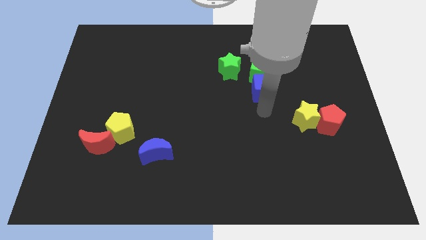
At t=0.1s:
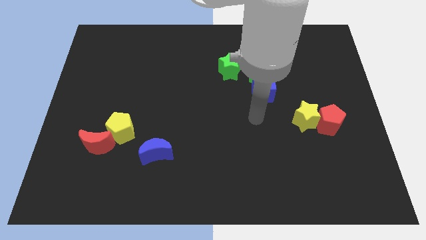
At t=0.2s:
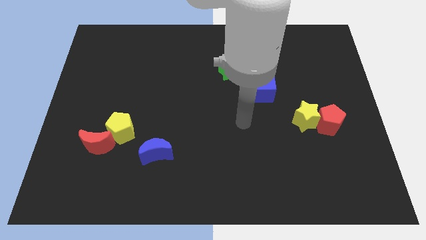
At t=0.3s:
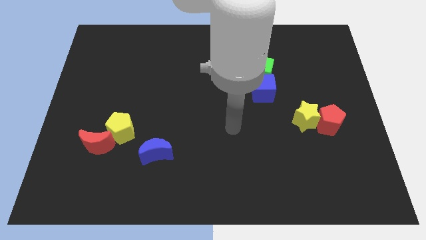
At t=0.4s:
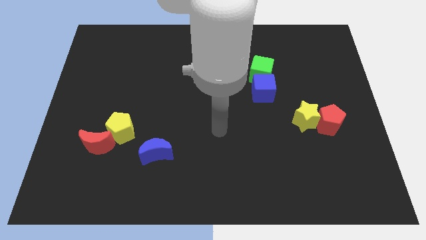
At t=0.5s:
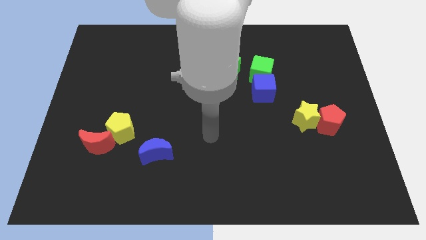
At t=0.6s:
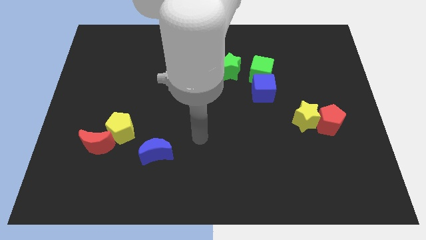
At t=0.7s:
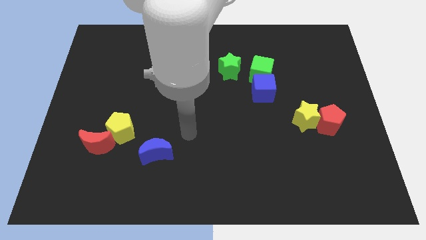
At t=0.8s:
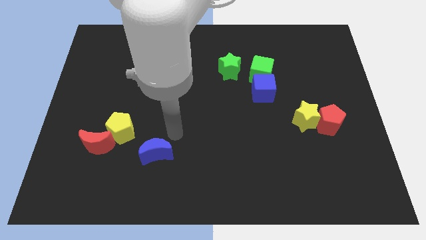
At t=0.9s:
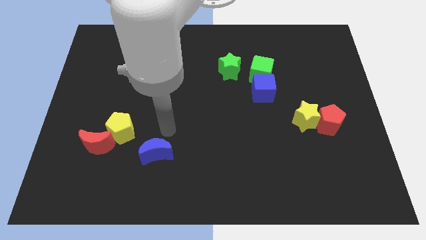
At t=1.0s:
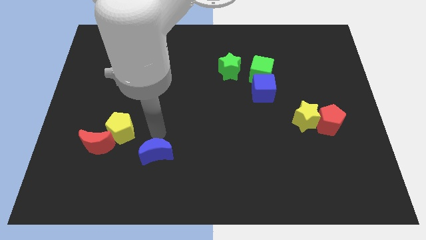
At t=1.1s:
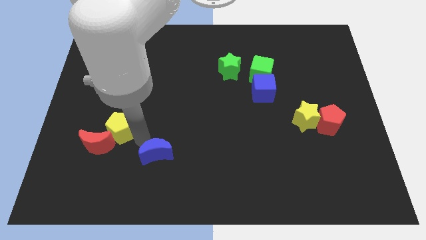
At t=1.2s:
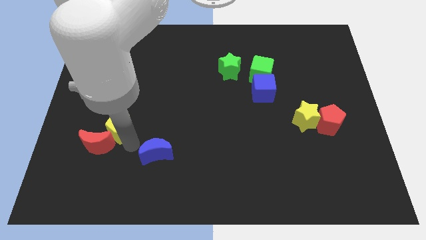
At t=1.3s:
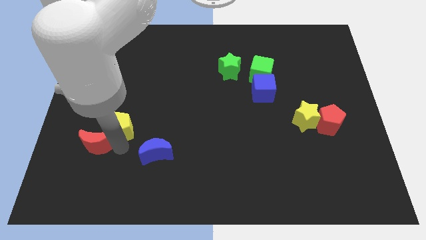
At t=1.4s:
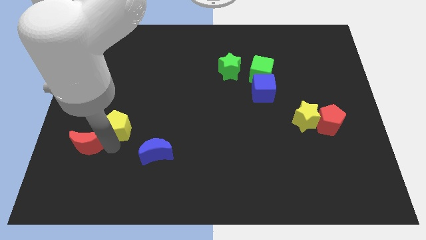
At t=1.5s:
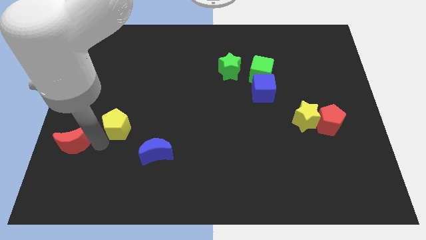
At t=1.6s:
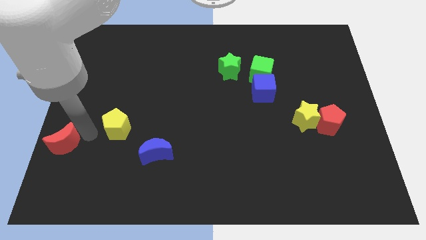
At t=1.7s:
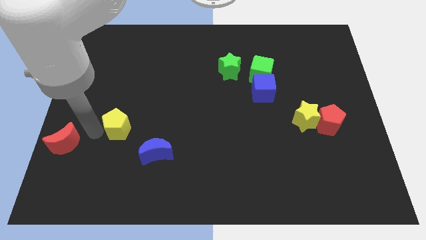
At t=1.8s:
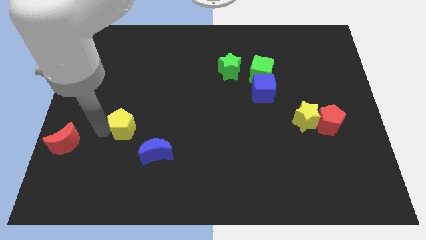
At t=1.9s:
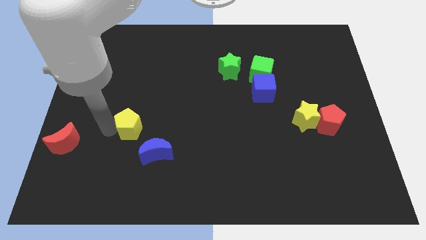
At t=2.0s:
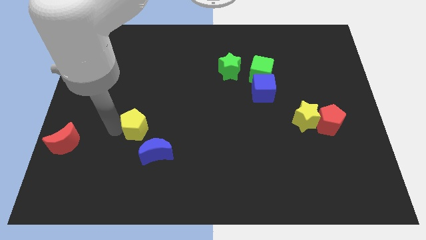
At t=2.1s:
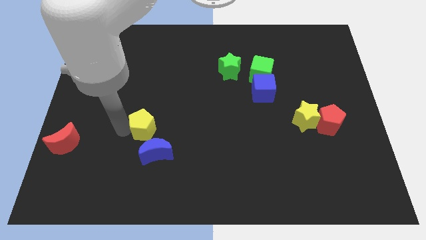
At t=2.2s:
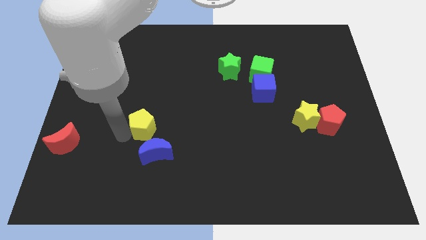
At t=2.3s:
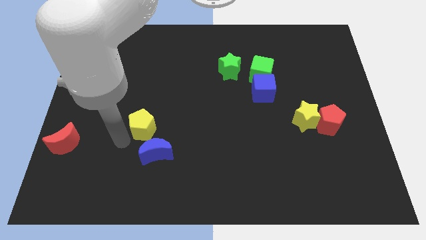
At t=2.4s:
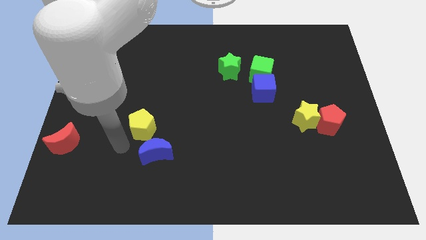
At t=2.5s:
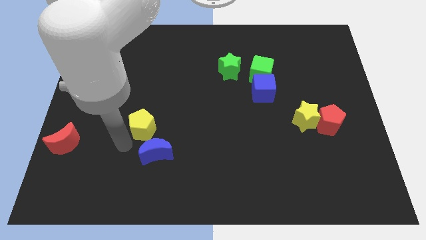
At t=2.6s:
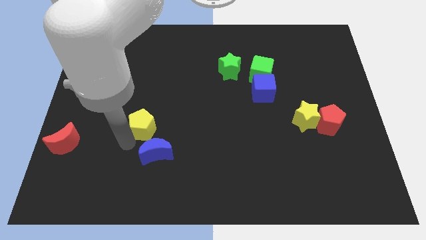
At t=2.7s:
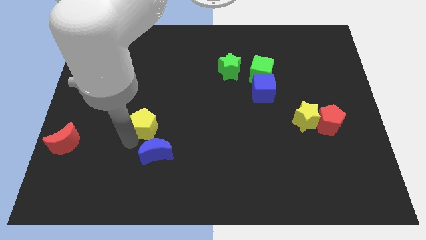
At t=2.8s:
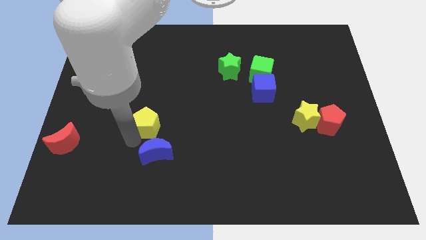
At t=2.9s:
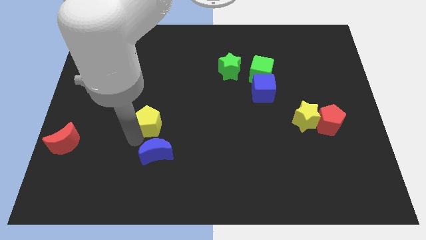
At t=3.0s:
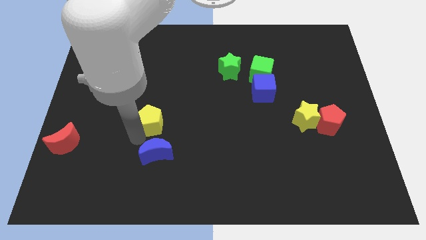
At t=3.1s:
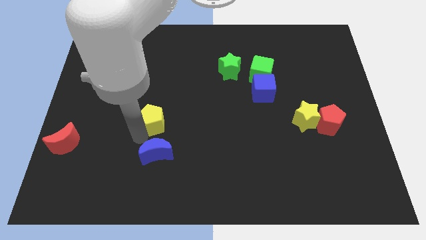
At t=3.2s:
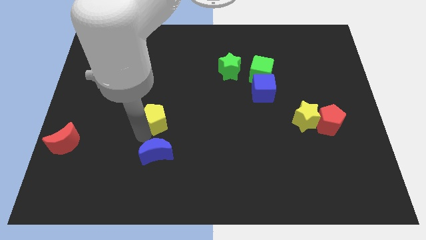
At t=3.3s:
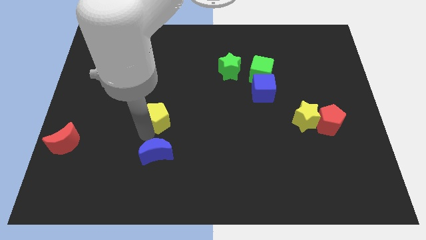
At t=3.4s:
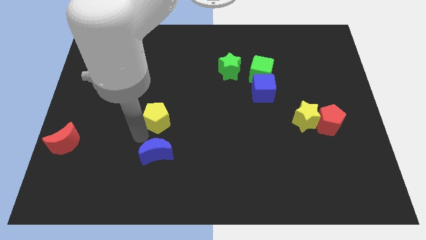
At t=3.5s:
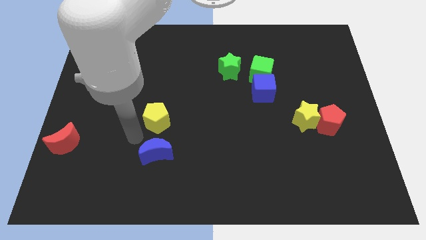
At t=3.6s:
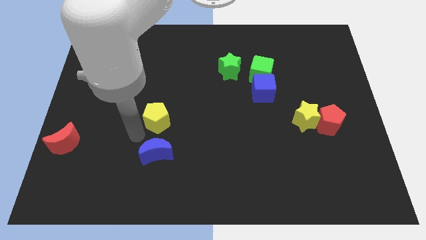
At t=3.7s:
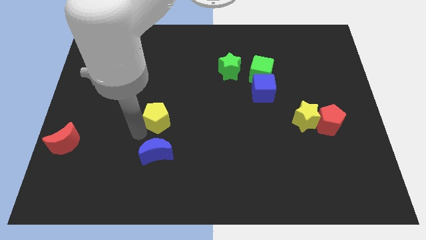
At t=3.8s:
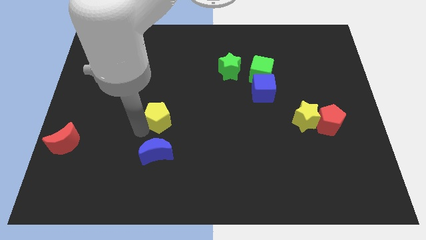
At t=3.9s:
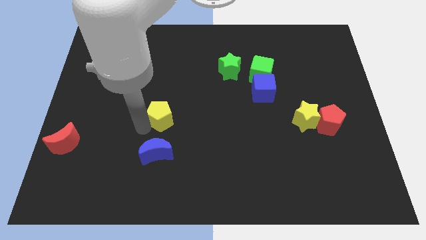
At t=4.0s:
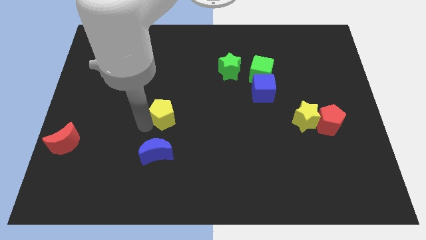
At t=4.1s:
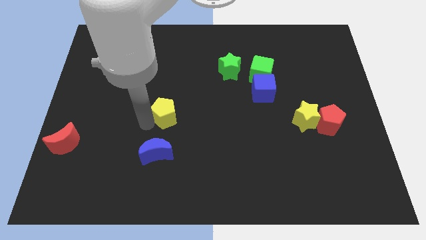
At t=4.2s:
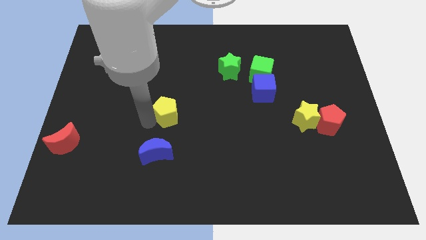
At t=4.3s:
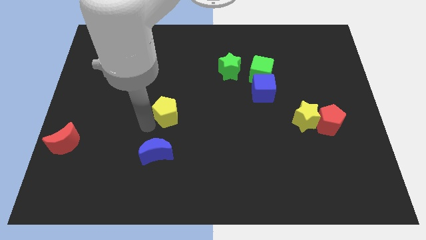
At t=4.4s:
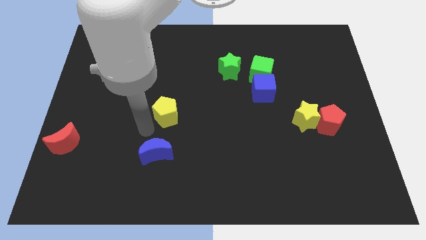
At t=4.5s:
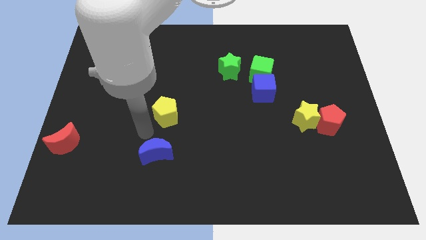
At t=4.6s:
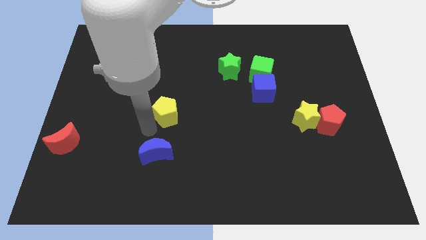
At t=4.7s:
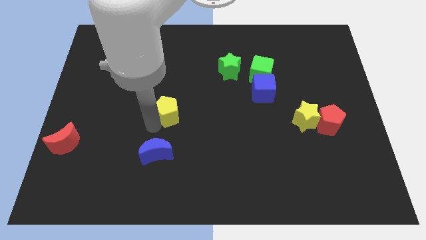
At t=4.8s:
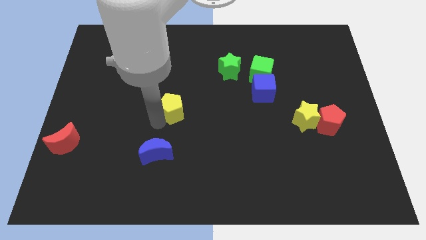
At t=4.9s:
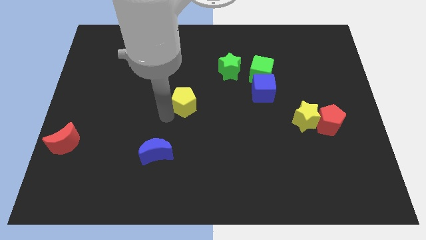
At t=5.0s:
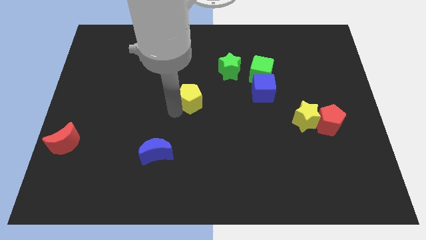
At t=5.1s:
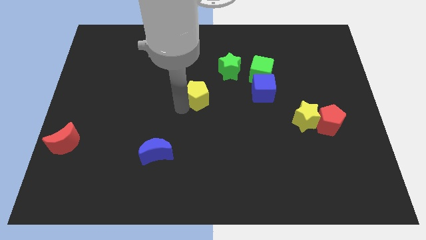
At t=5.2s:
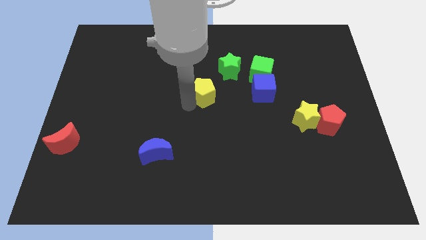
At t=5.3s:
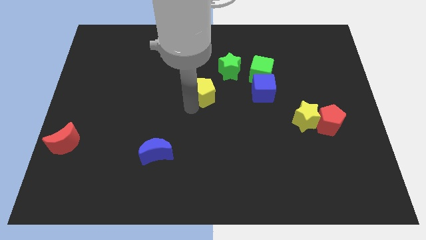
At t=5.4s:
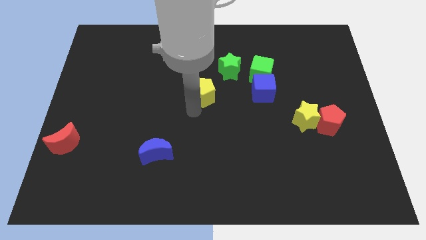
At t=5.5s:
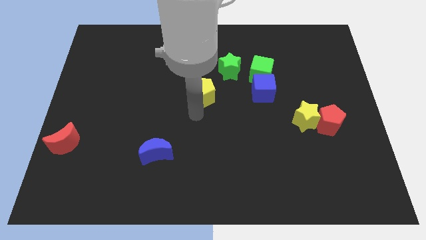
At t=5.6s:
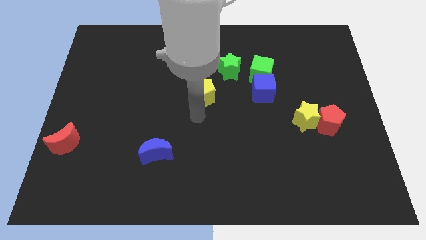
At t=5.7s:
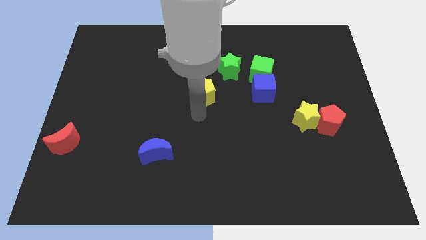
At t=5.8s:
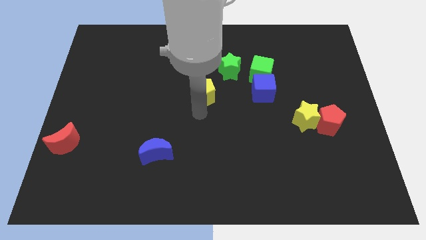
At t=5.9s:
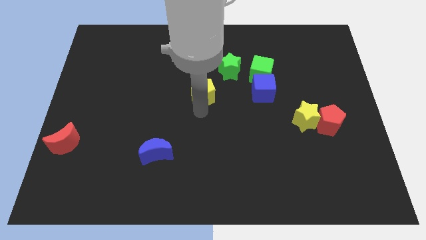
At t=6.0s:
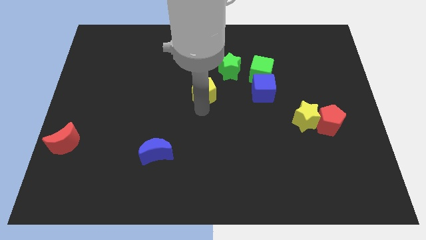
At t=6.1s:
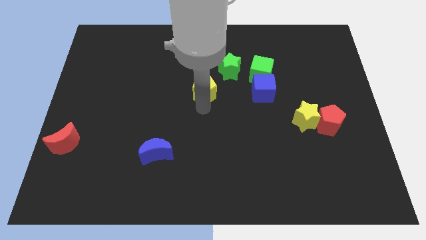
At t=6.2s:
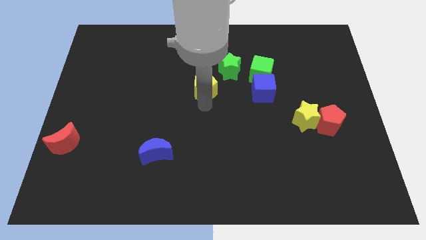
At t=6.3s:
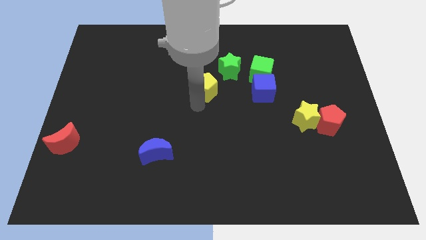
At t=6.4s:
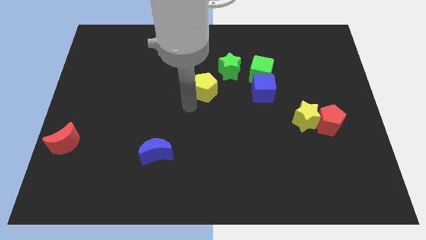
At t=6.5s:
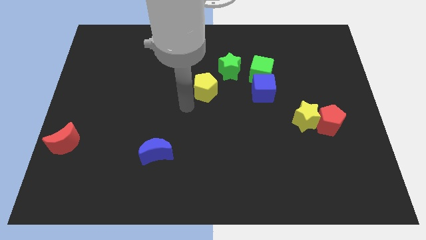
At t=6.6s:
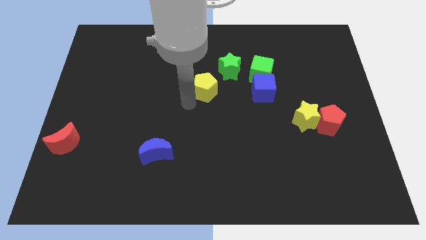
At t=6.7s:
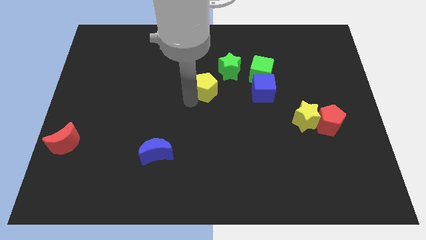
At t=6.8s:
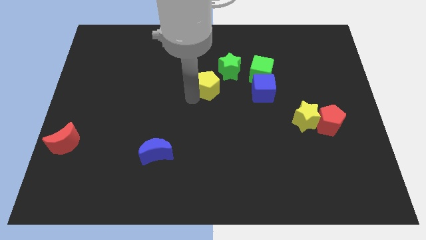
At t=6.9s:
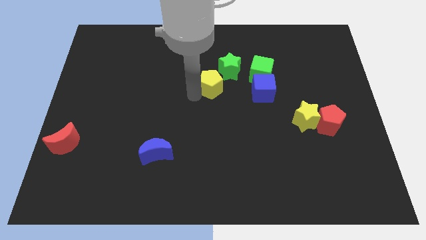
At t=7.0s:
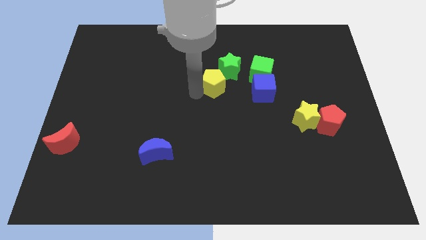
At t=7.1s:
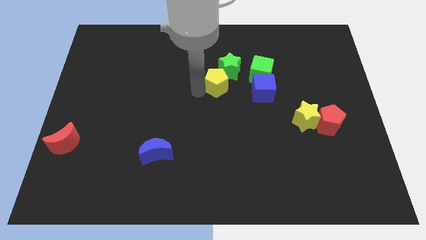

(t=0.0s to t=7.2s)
move the yellow pentagon to the green star

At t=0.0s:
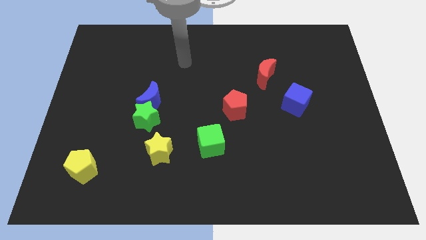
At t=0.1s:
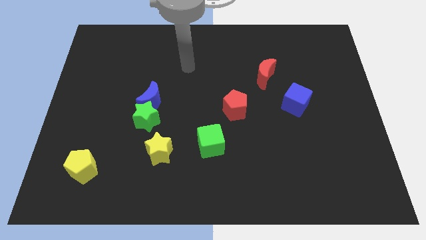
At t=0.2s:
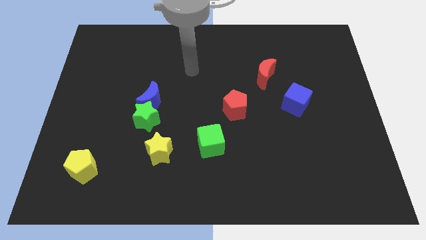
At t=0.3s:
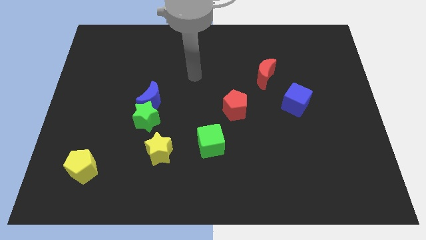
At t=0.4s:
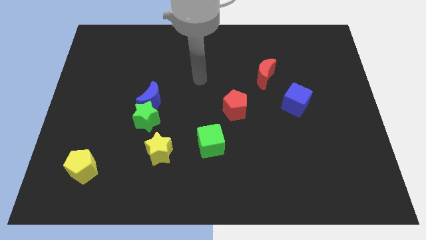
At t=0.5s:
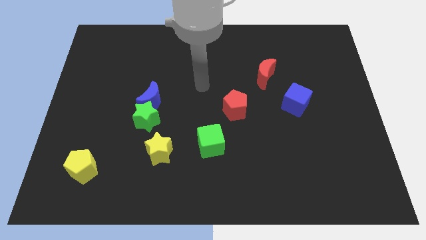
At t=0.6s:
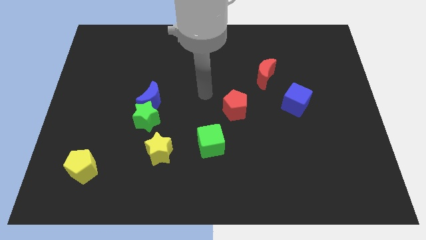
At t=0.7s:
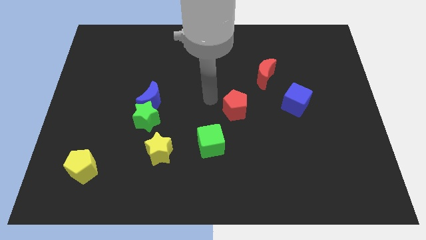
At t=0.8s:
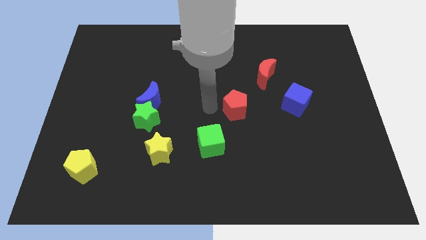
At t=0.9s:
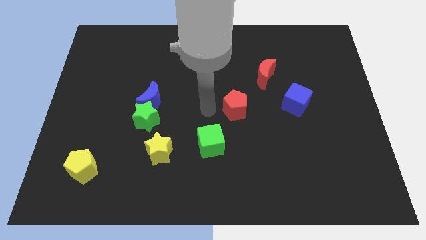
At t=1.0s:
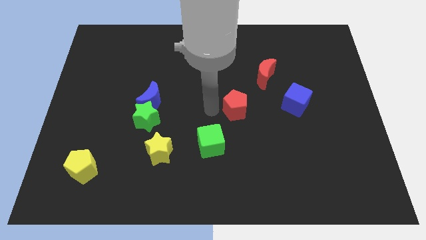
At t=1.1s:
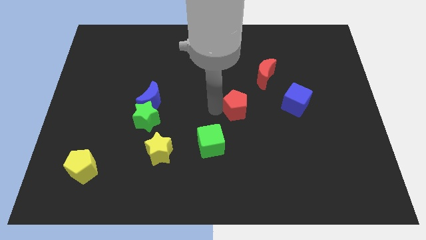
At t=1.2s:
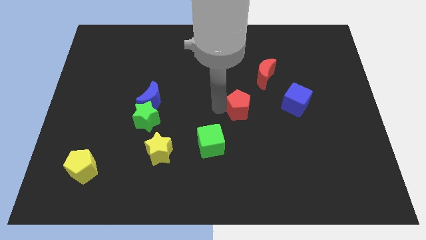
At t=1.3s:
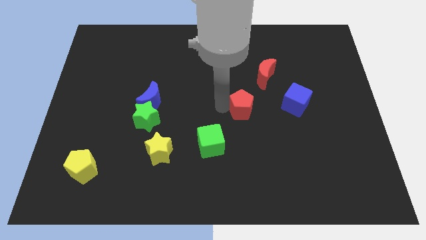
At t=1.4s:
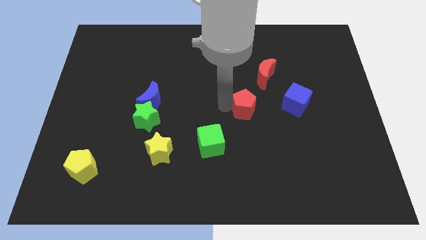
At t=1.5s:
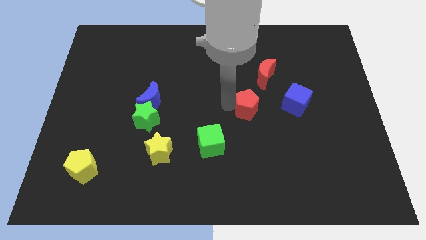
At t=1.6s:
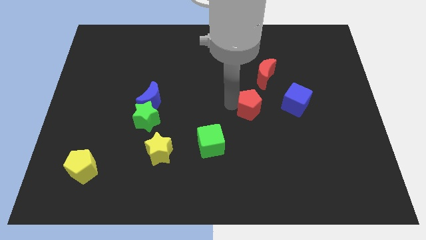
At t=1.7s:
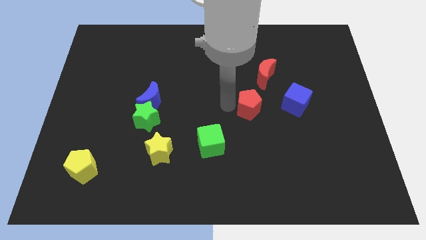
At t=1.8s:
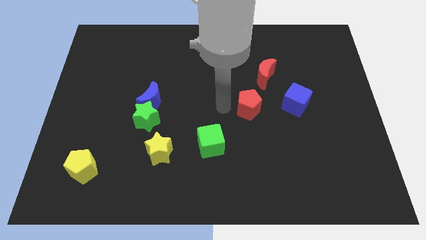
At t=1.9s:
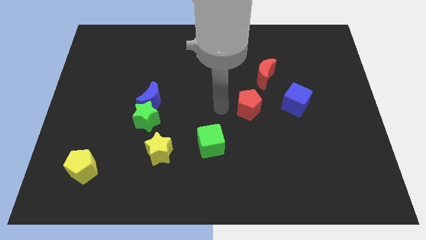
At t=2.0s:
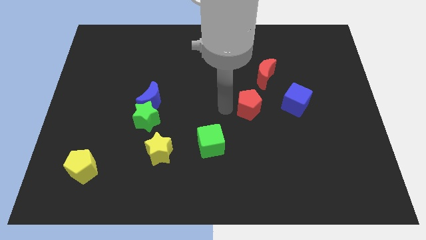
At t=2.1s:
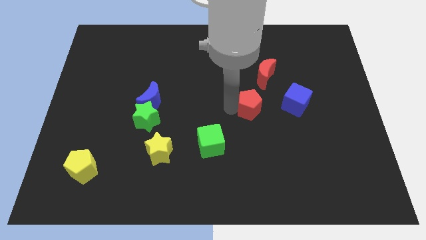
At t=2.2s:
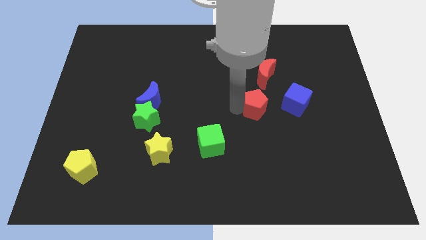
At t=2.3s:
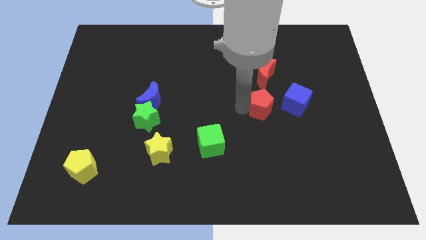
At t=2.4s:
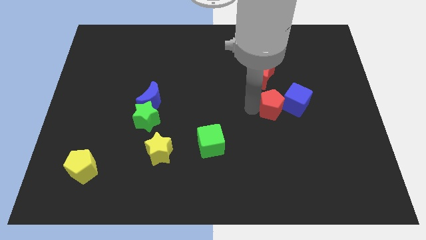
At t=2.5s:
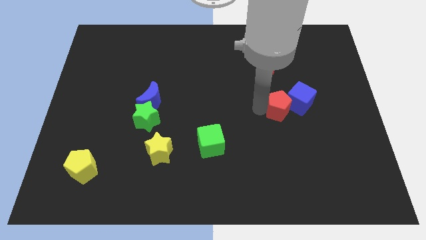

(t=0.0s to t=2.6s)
move the red pentagon towards the blue cube
